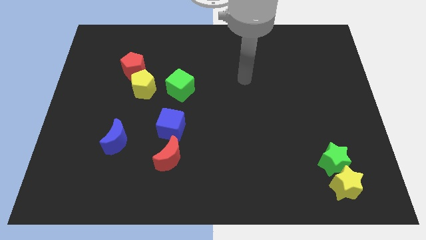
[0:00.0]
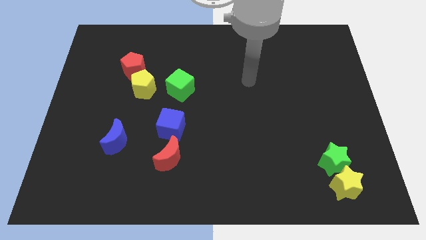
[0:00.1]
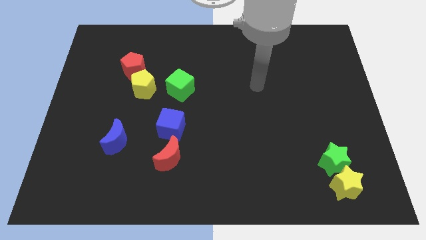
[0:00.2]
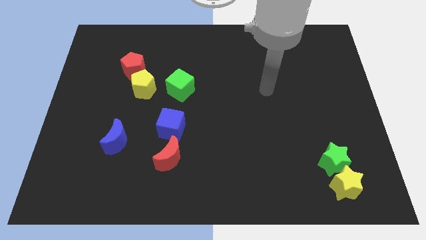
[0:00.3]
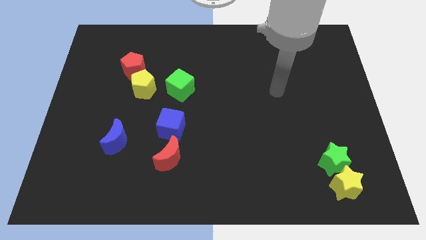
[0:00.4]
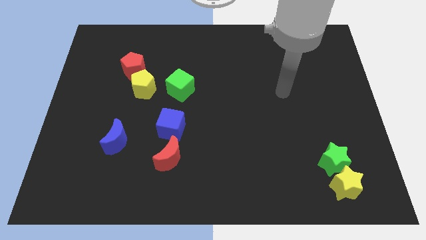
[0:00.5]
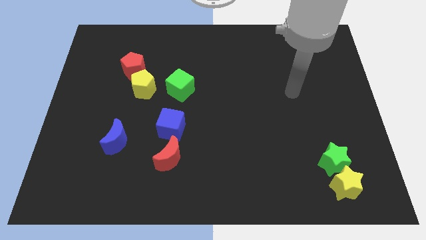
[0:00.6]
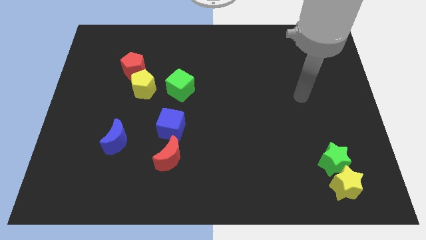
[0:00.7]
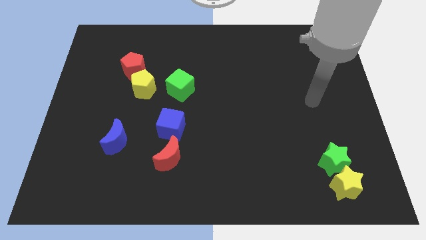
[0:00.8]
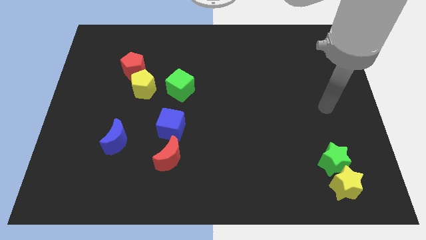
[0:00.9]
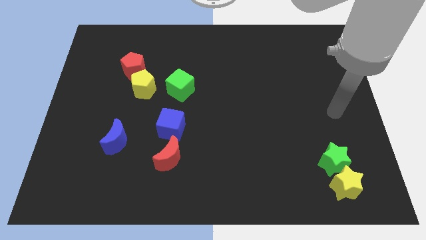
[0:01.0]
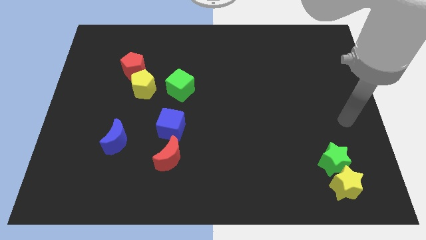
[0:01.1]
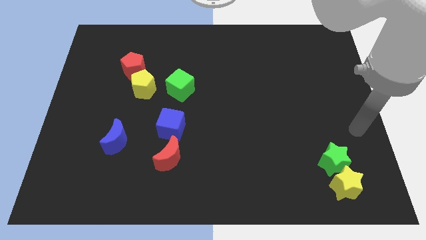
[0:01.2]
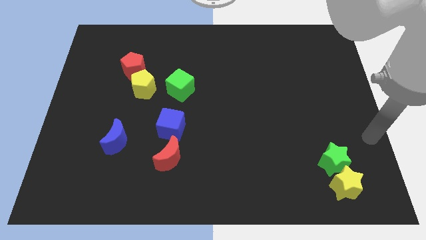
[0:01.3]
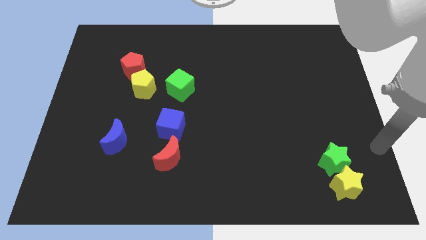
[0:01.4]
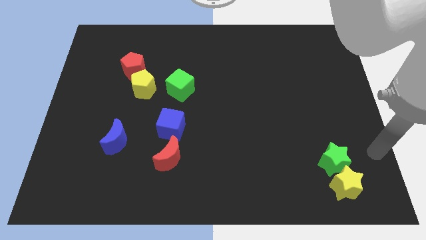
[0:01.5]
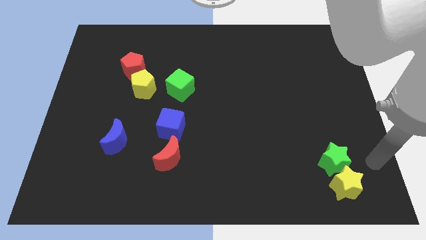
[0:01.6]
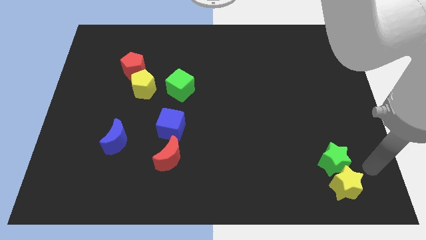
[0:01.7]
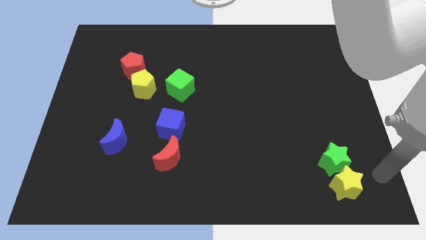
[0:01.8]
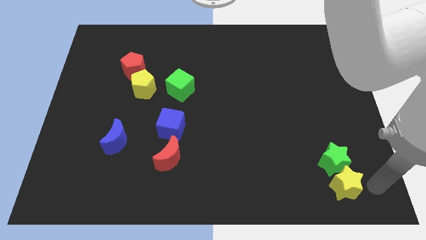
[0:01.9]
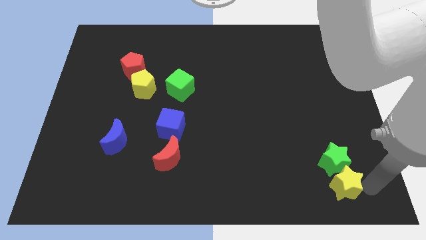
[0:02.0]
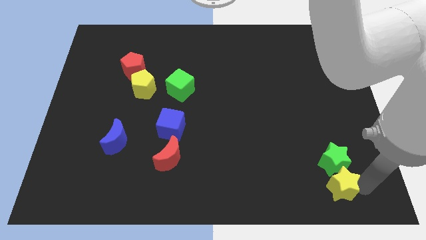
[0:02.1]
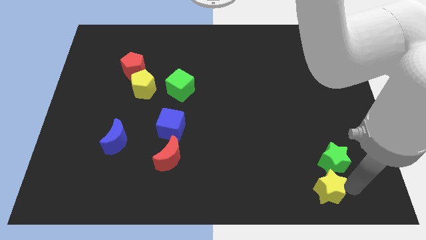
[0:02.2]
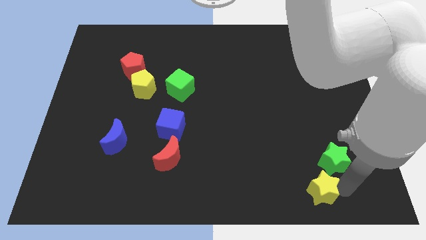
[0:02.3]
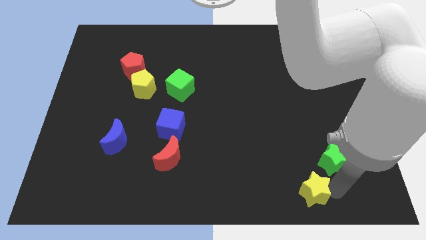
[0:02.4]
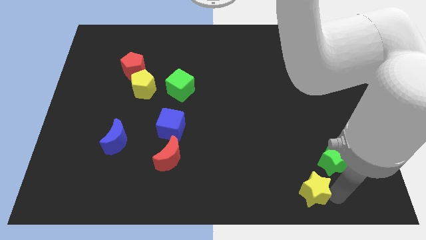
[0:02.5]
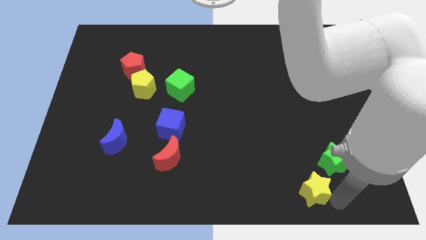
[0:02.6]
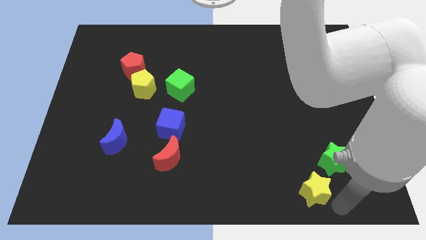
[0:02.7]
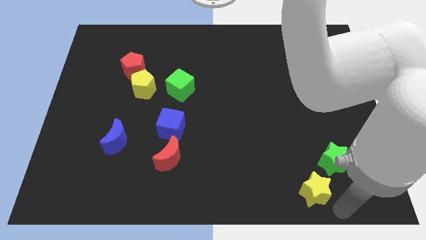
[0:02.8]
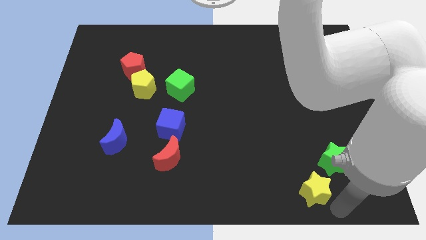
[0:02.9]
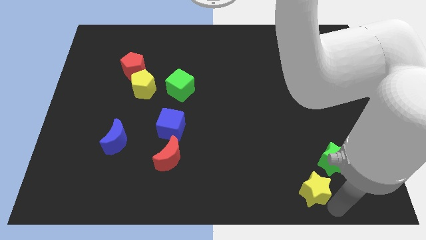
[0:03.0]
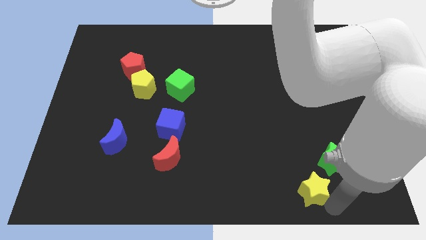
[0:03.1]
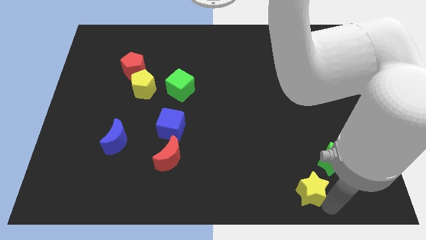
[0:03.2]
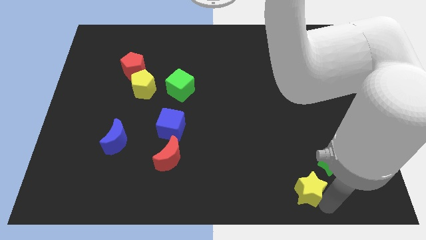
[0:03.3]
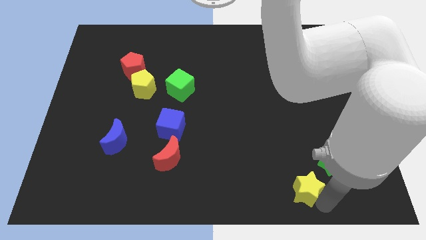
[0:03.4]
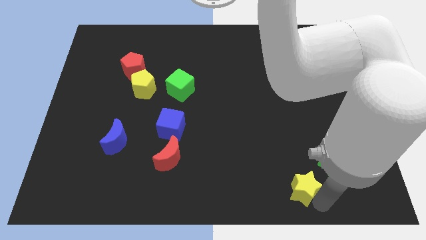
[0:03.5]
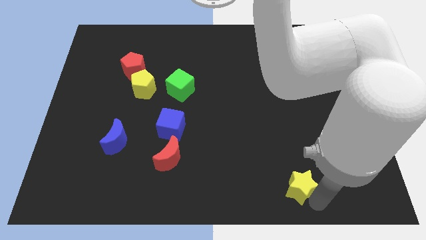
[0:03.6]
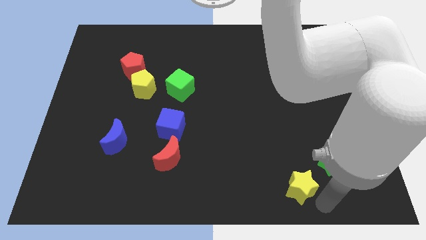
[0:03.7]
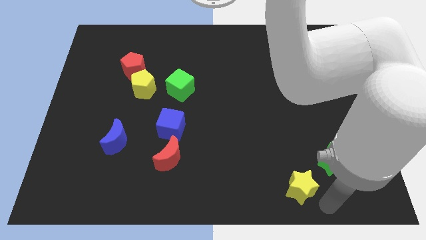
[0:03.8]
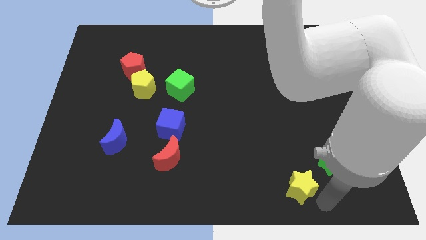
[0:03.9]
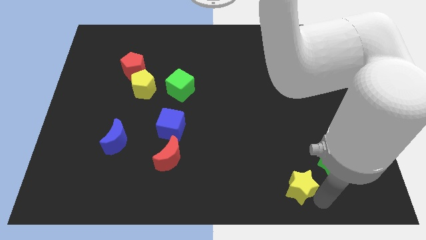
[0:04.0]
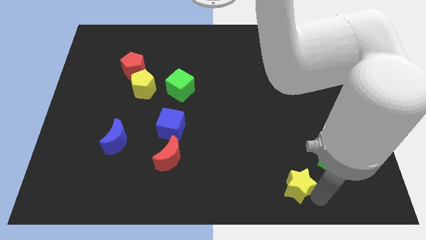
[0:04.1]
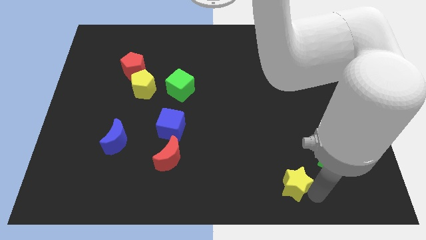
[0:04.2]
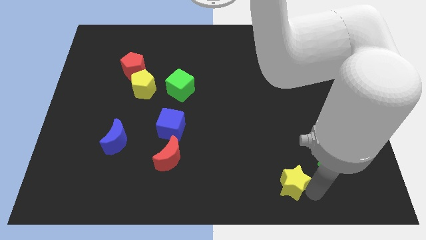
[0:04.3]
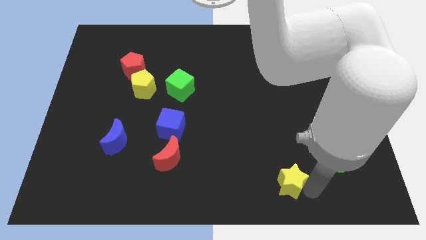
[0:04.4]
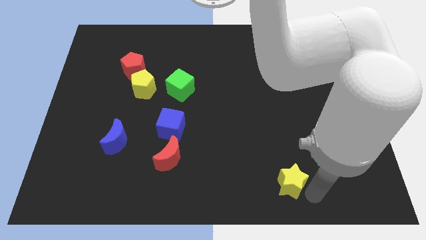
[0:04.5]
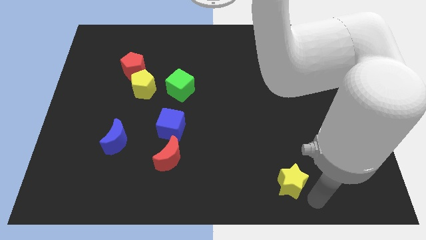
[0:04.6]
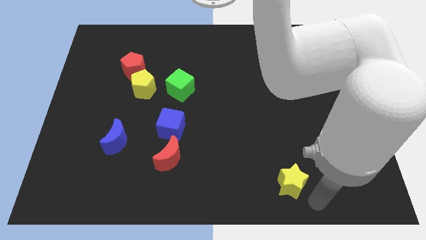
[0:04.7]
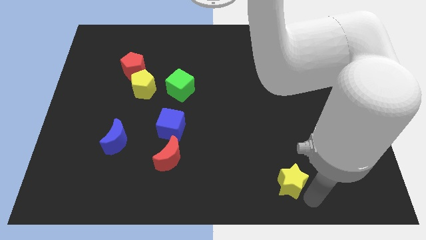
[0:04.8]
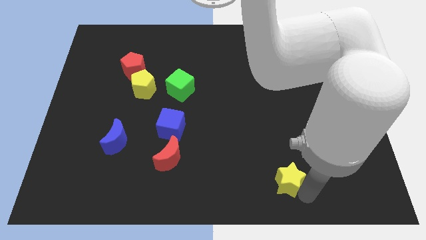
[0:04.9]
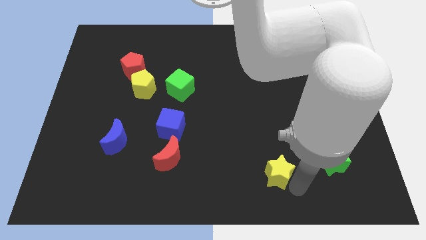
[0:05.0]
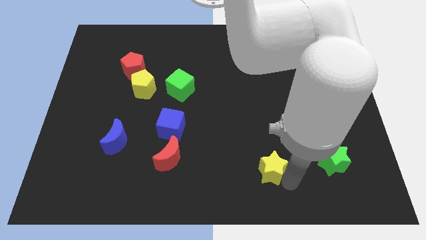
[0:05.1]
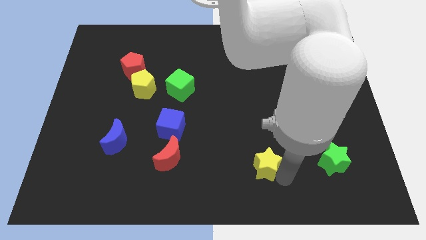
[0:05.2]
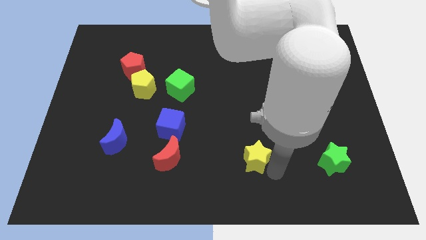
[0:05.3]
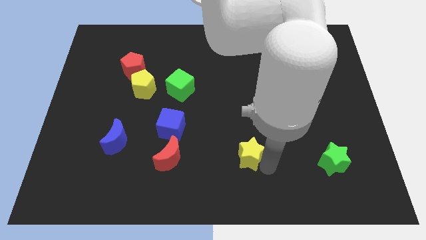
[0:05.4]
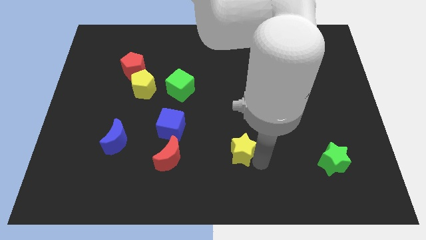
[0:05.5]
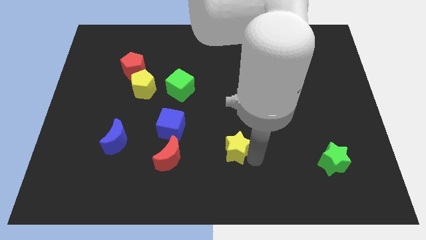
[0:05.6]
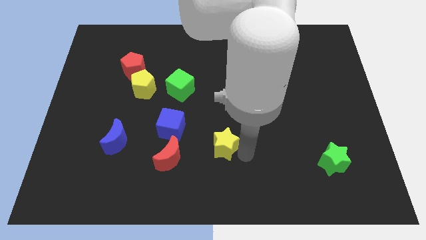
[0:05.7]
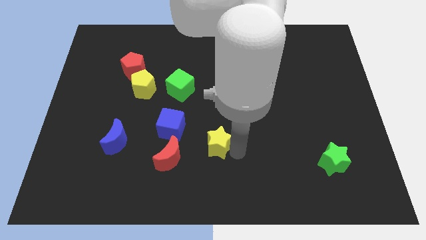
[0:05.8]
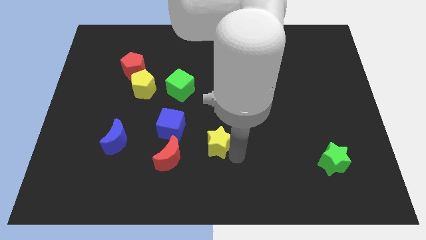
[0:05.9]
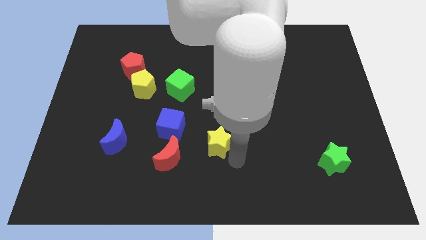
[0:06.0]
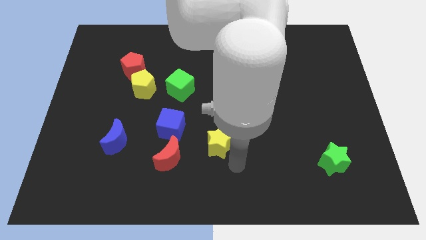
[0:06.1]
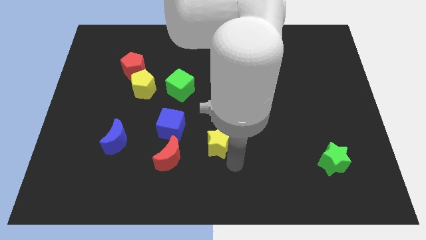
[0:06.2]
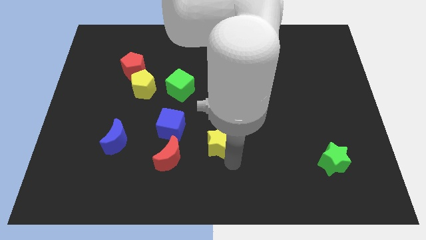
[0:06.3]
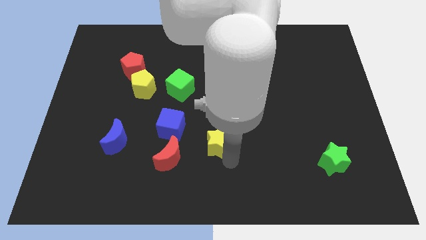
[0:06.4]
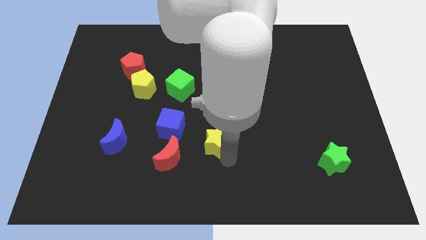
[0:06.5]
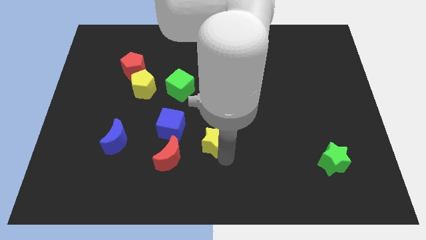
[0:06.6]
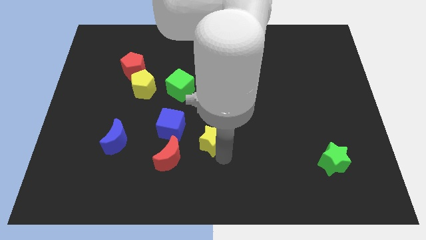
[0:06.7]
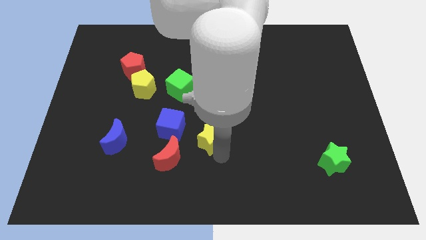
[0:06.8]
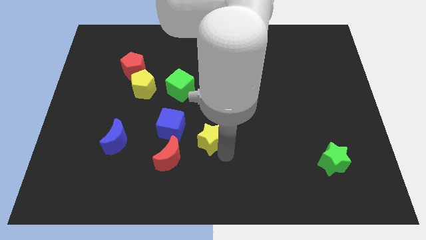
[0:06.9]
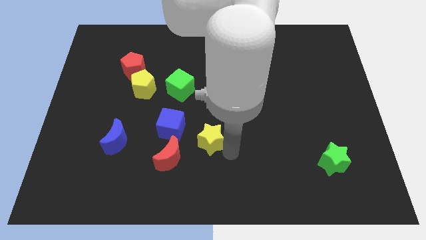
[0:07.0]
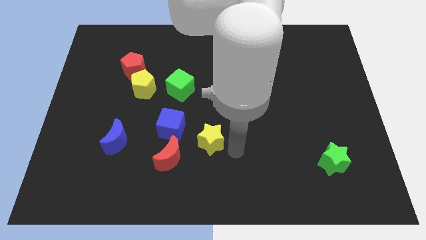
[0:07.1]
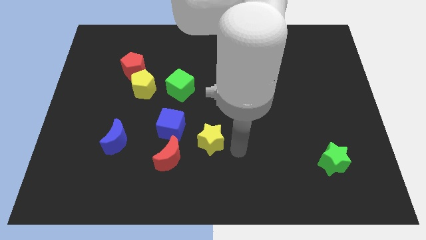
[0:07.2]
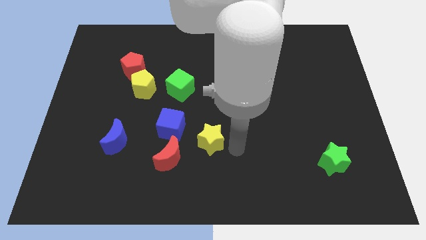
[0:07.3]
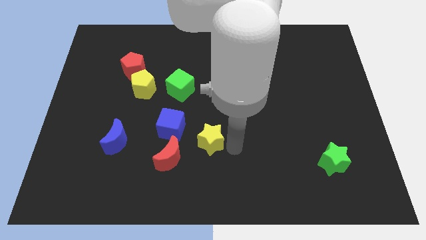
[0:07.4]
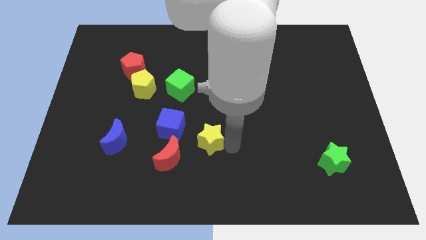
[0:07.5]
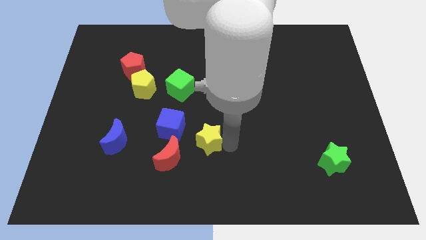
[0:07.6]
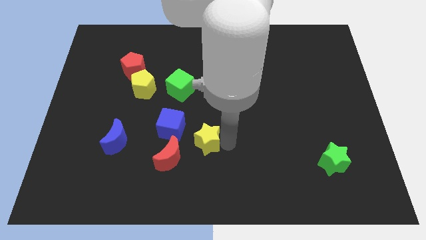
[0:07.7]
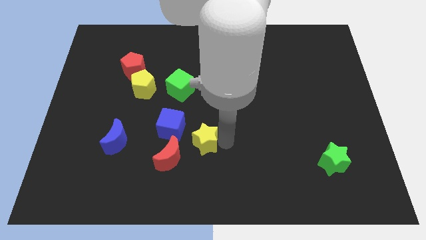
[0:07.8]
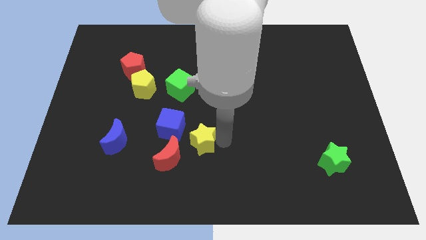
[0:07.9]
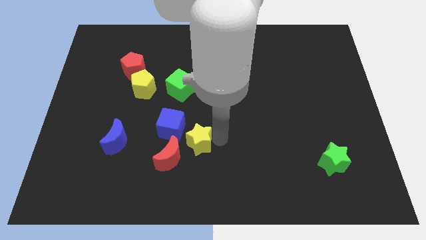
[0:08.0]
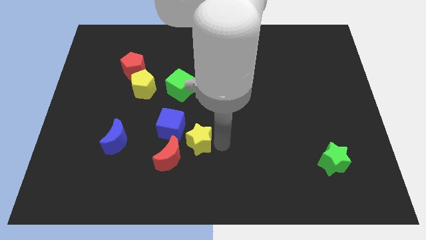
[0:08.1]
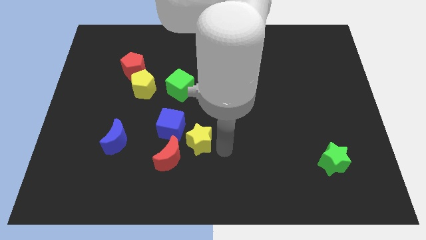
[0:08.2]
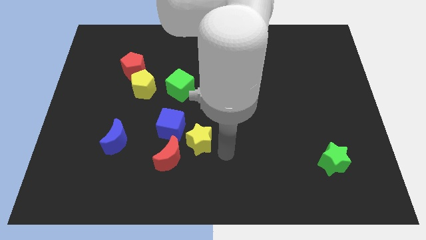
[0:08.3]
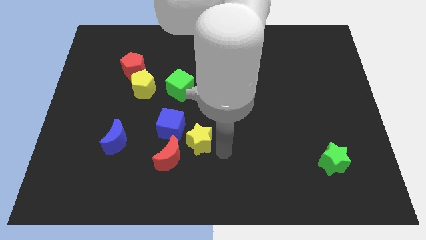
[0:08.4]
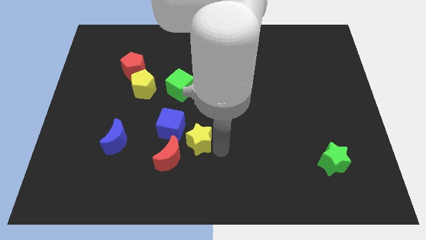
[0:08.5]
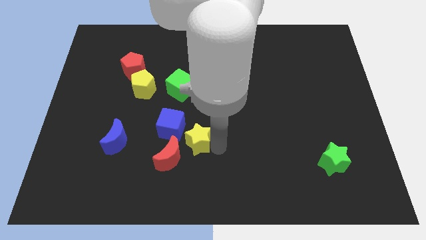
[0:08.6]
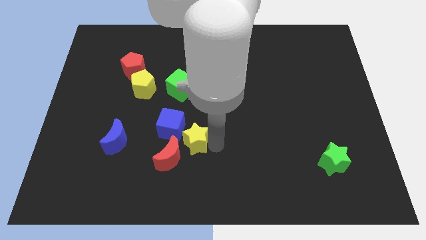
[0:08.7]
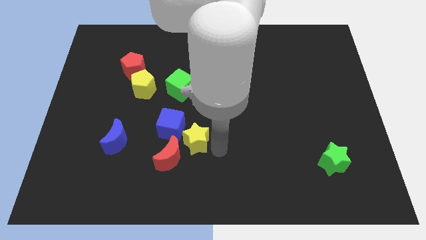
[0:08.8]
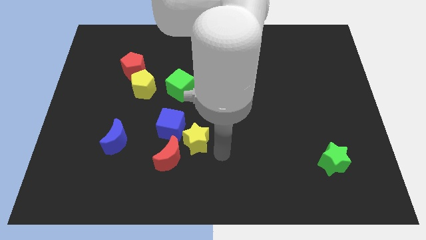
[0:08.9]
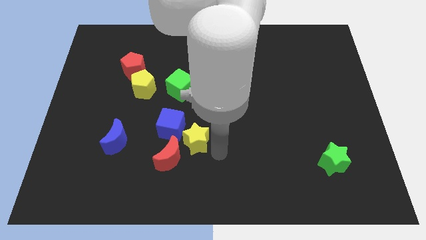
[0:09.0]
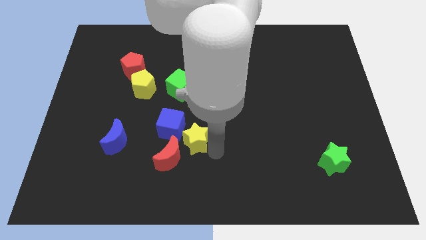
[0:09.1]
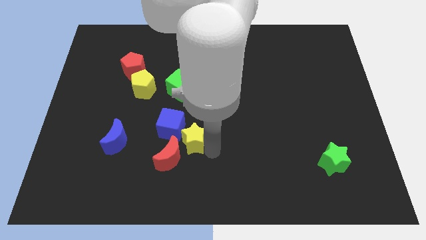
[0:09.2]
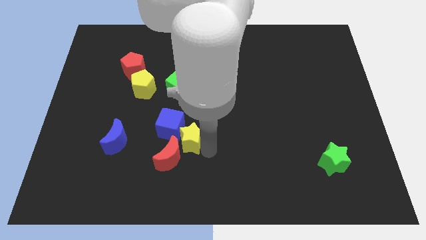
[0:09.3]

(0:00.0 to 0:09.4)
put the yellow star next to the blue cube
